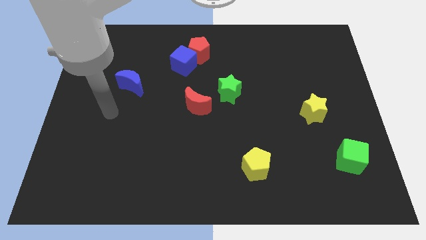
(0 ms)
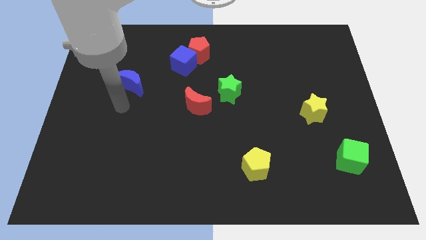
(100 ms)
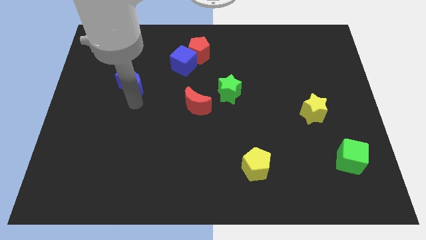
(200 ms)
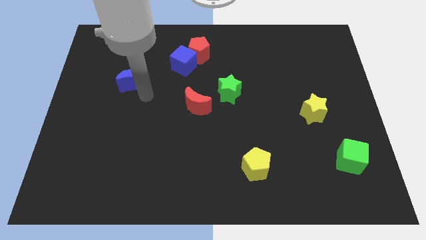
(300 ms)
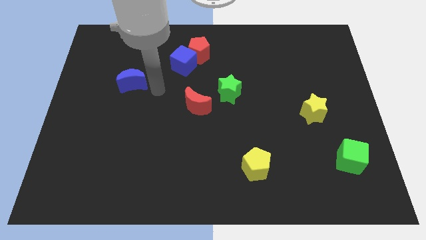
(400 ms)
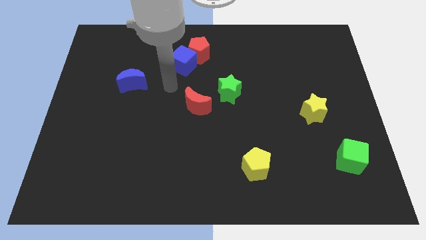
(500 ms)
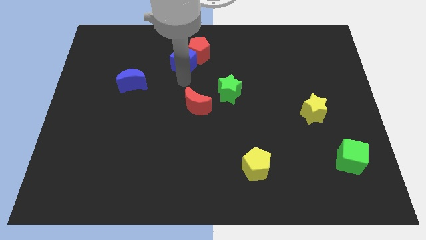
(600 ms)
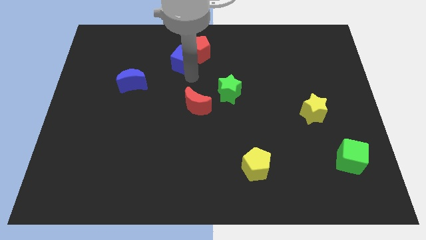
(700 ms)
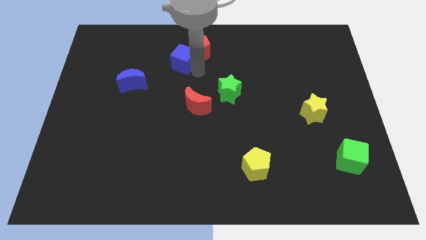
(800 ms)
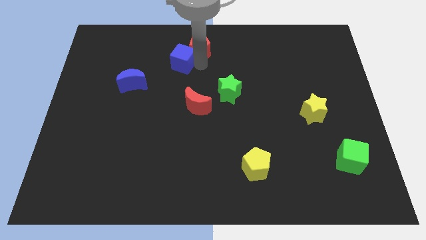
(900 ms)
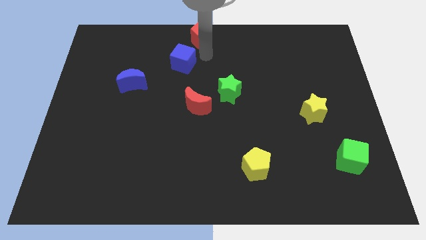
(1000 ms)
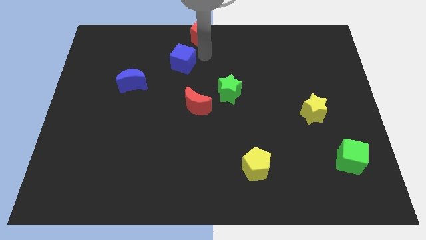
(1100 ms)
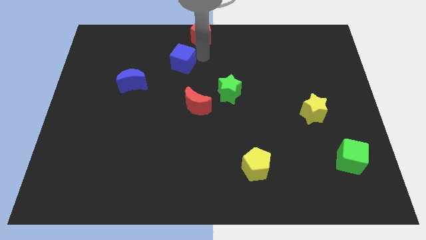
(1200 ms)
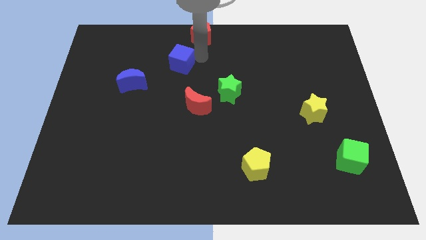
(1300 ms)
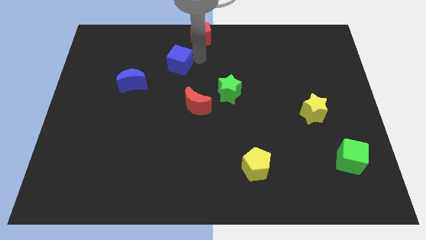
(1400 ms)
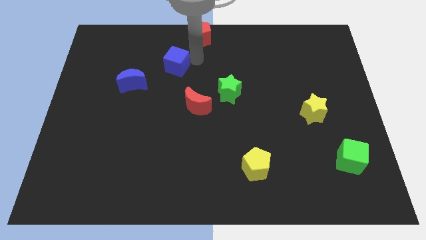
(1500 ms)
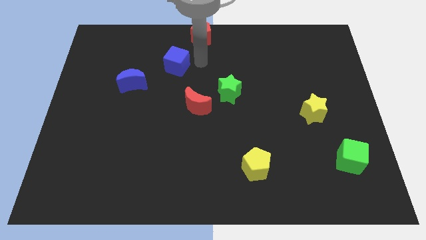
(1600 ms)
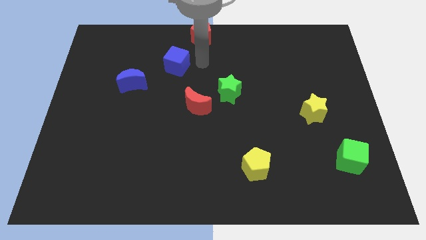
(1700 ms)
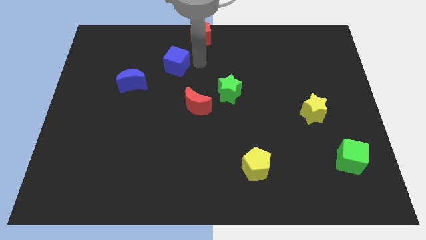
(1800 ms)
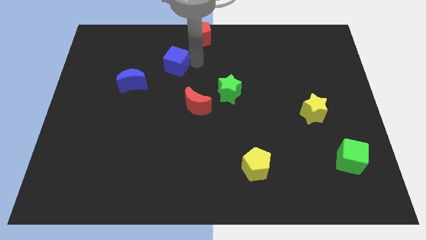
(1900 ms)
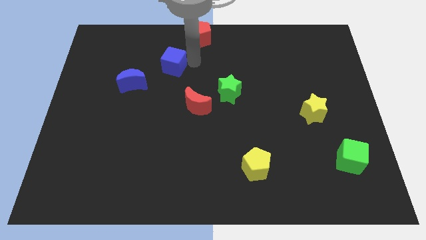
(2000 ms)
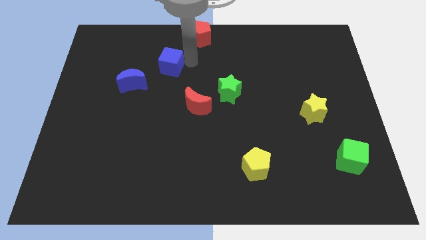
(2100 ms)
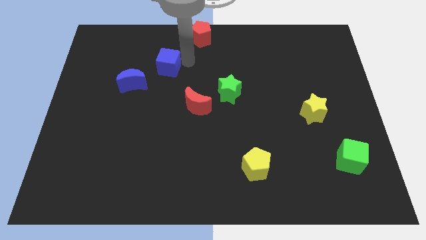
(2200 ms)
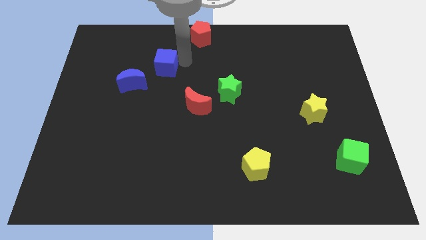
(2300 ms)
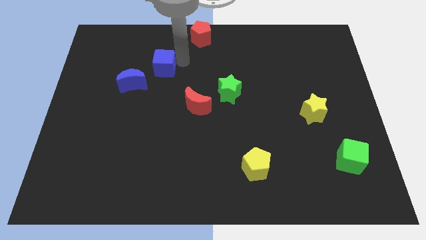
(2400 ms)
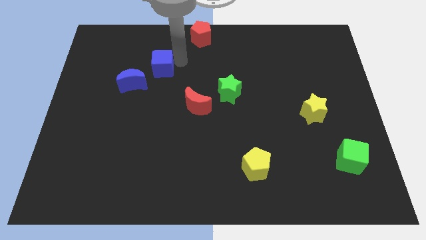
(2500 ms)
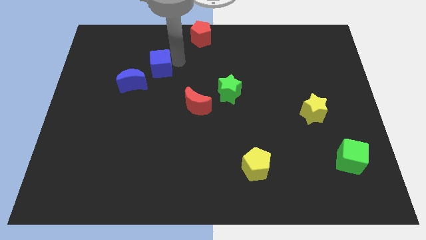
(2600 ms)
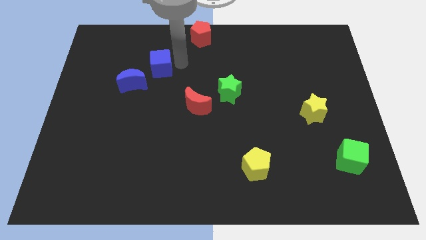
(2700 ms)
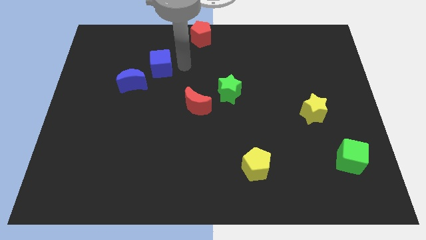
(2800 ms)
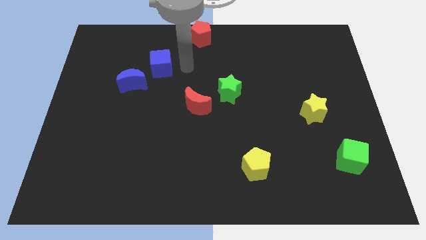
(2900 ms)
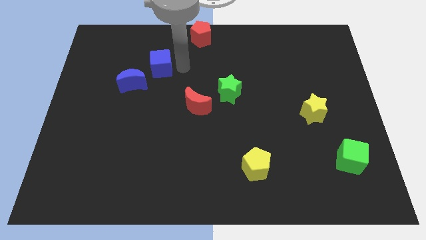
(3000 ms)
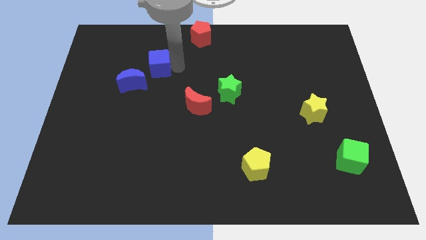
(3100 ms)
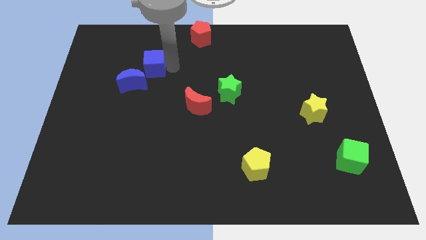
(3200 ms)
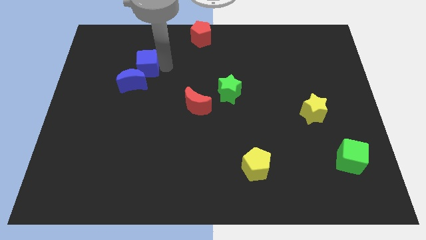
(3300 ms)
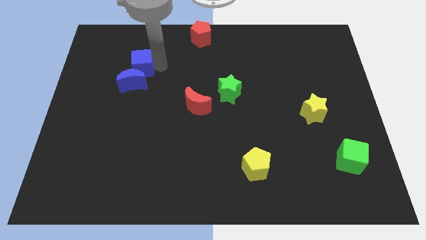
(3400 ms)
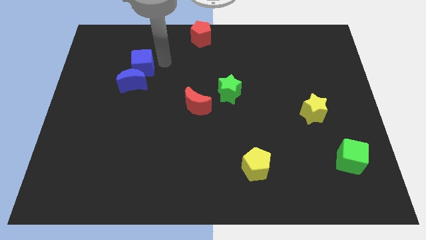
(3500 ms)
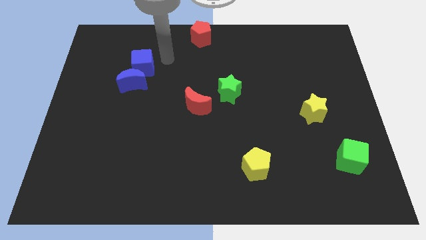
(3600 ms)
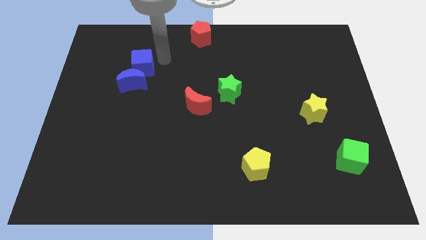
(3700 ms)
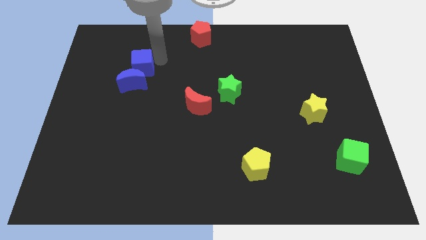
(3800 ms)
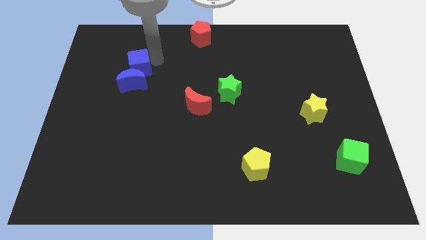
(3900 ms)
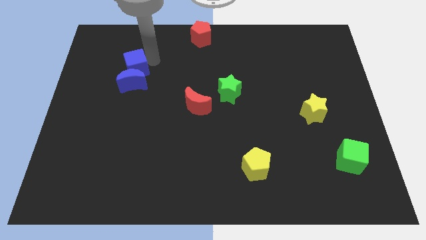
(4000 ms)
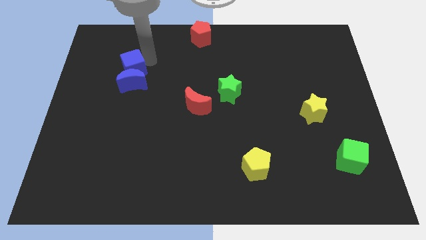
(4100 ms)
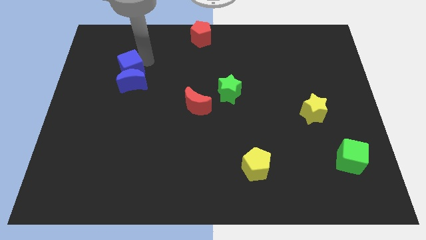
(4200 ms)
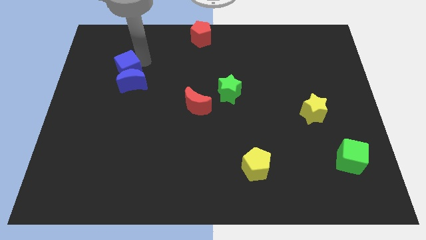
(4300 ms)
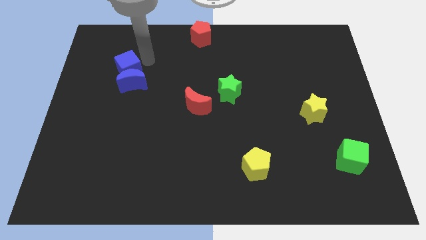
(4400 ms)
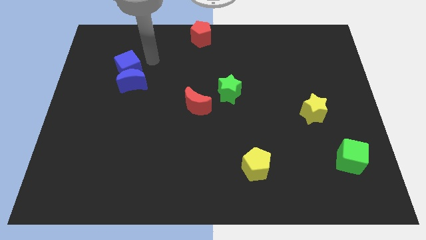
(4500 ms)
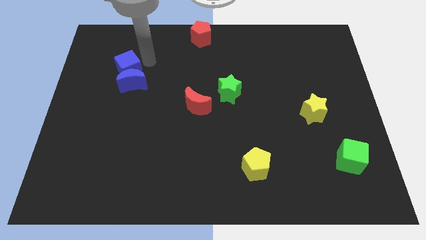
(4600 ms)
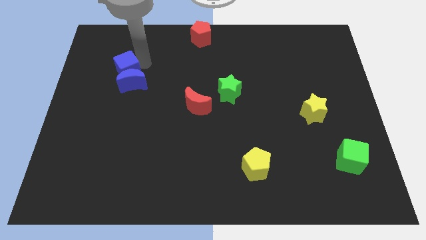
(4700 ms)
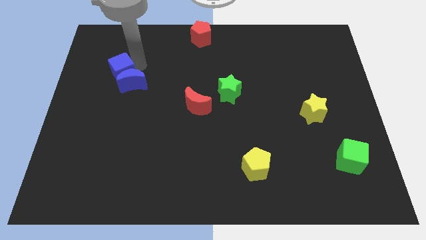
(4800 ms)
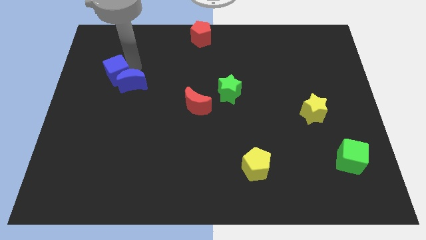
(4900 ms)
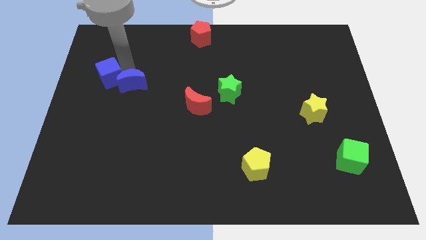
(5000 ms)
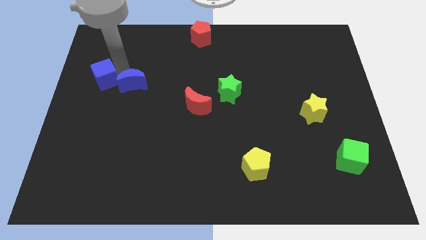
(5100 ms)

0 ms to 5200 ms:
push the blue cube to the center left
